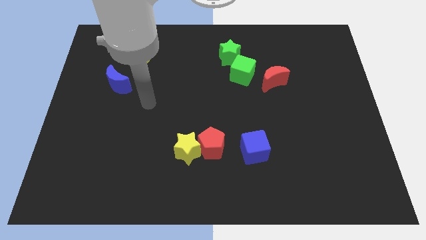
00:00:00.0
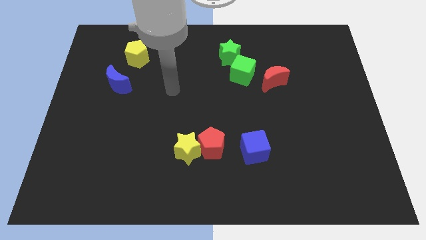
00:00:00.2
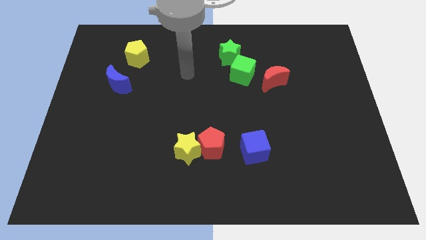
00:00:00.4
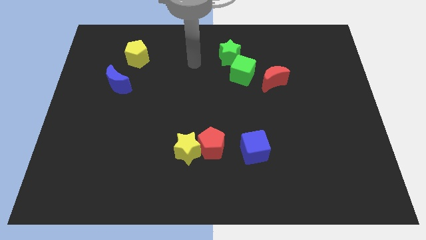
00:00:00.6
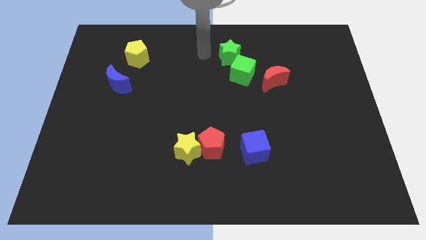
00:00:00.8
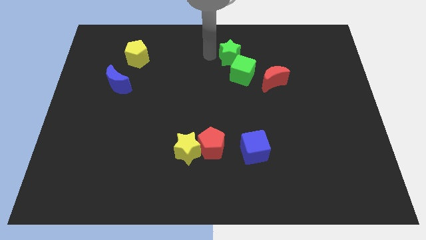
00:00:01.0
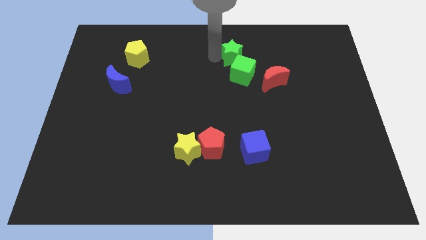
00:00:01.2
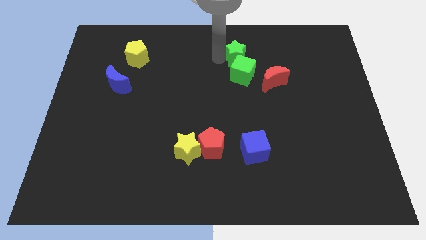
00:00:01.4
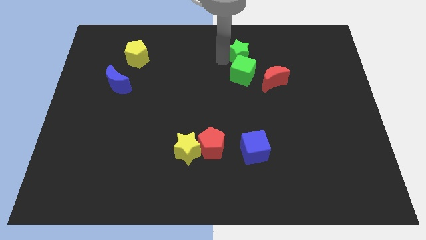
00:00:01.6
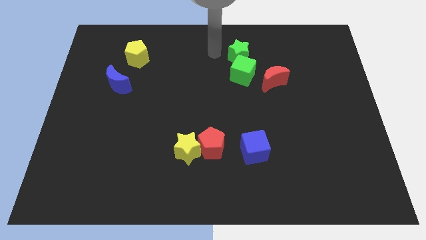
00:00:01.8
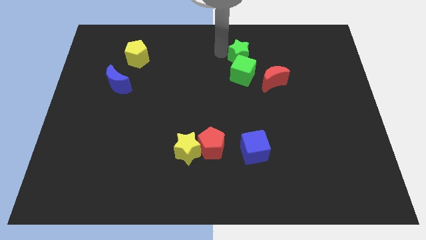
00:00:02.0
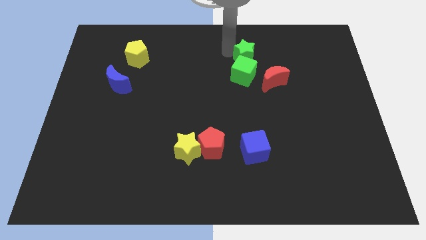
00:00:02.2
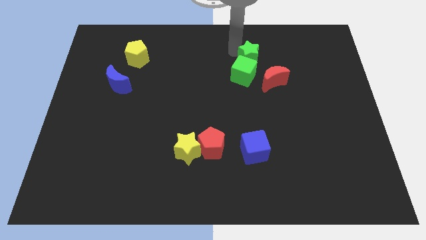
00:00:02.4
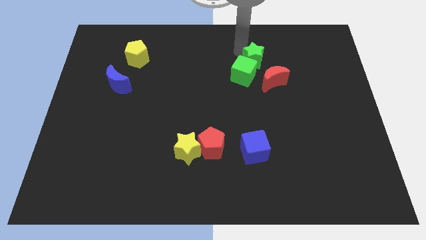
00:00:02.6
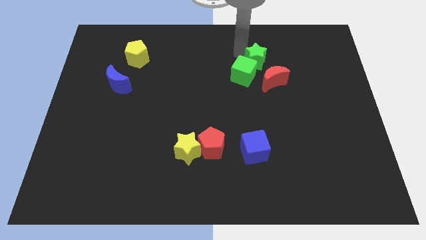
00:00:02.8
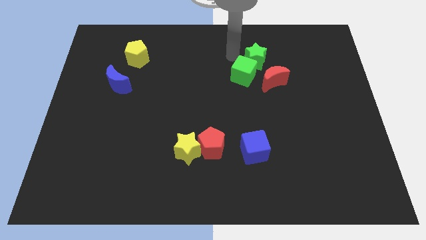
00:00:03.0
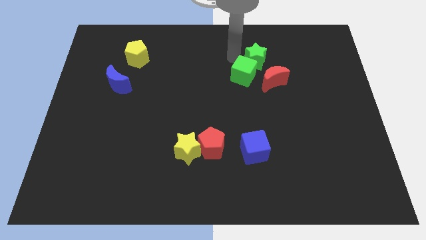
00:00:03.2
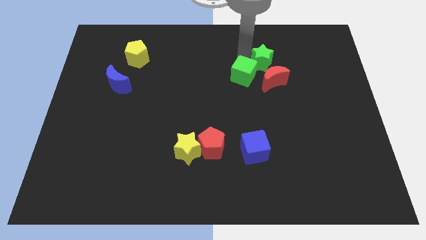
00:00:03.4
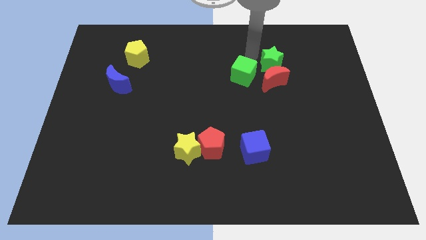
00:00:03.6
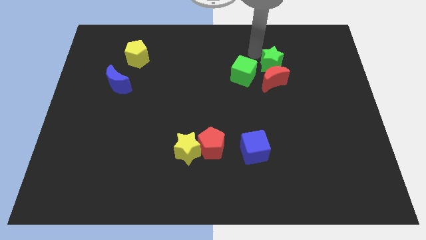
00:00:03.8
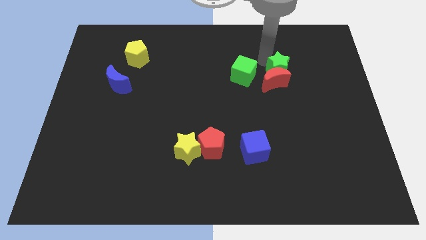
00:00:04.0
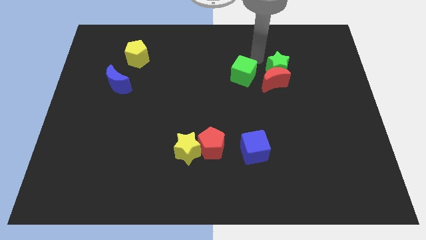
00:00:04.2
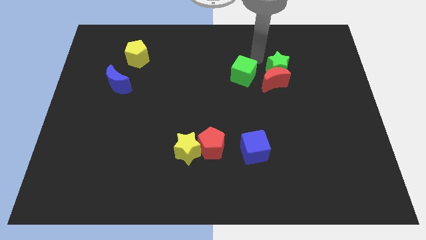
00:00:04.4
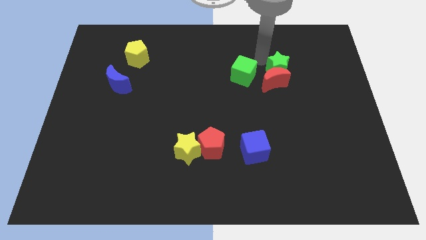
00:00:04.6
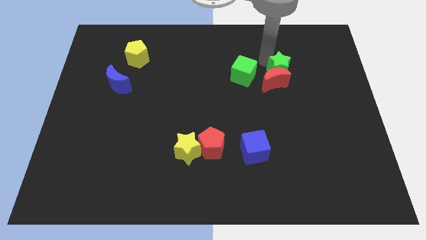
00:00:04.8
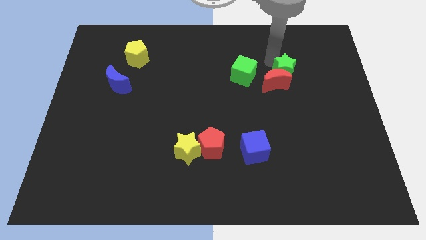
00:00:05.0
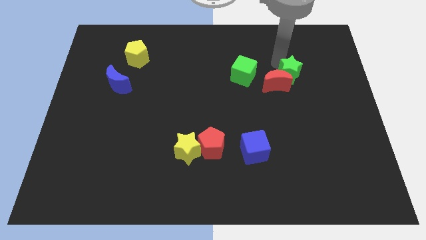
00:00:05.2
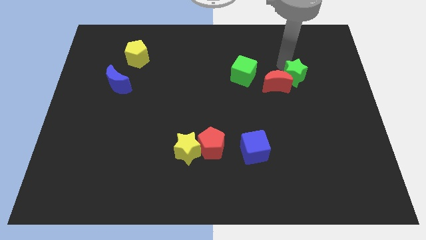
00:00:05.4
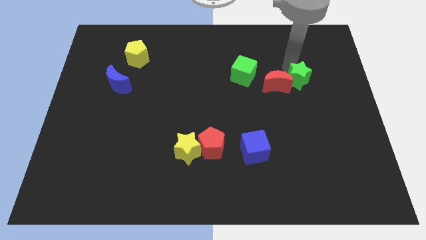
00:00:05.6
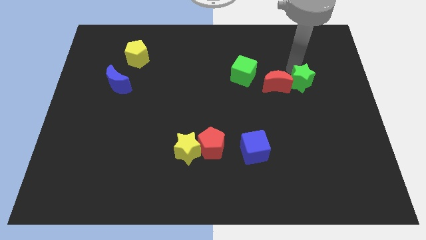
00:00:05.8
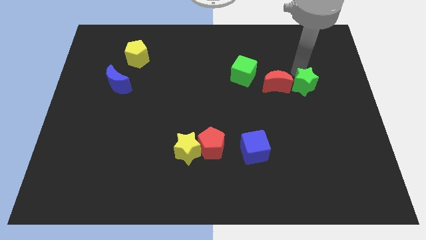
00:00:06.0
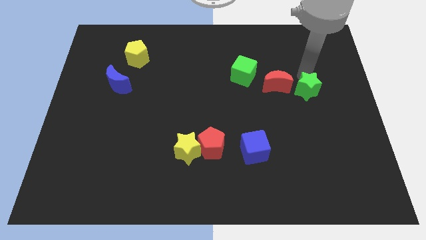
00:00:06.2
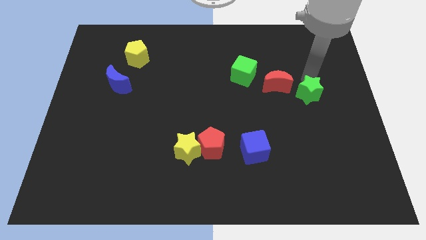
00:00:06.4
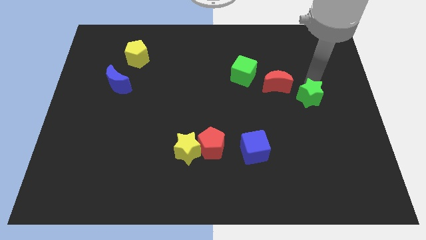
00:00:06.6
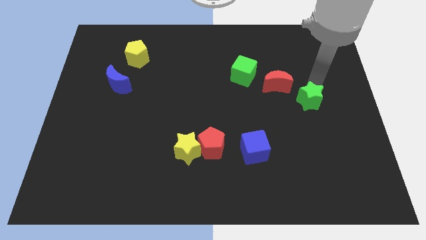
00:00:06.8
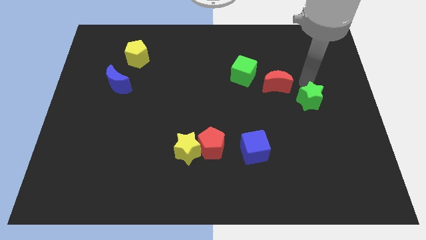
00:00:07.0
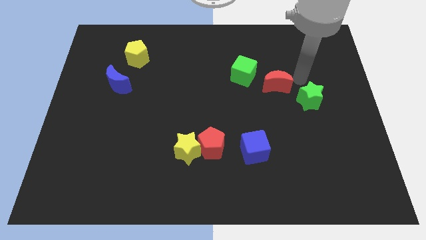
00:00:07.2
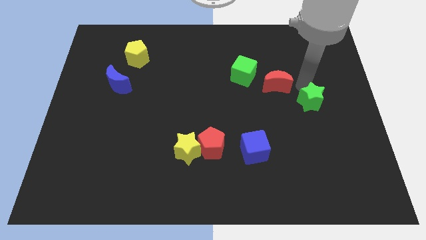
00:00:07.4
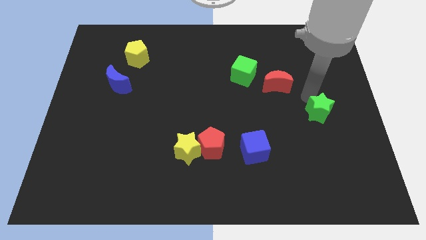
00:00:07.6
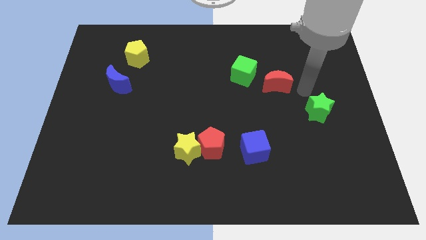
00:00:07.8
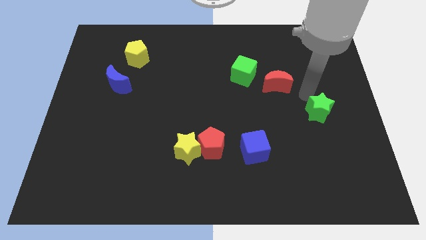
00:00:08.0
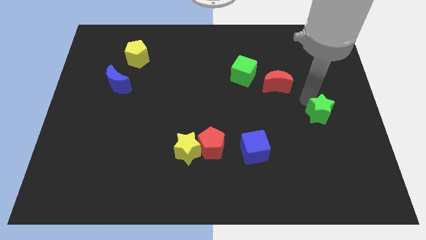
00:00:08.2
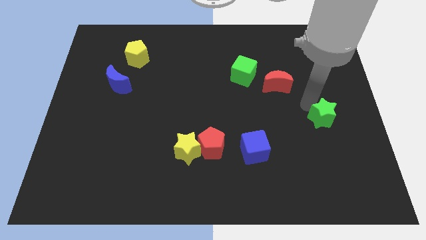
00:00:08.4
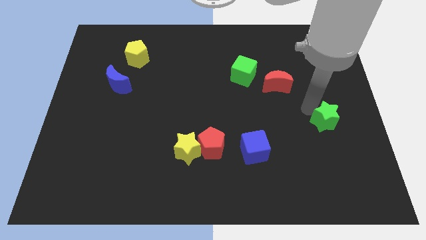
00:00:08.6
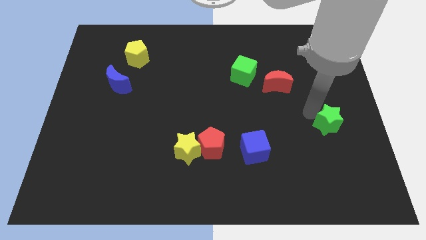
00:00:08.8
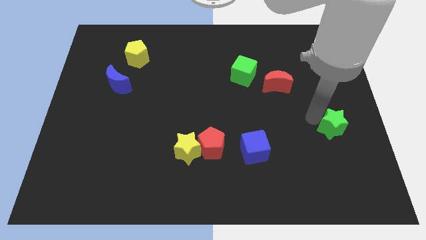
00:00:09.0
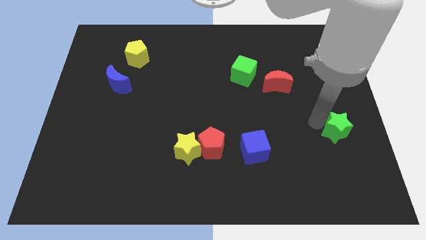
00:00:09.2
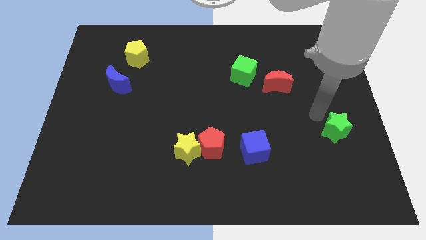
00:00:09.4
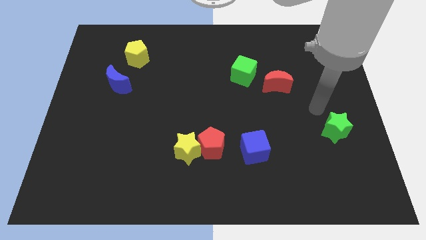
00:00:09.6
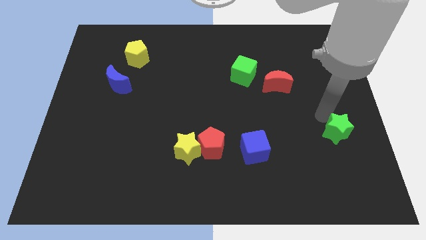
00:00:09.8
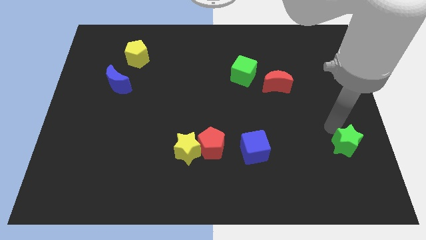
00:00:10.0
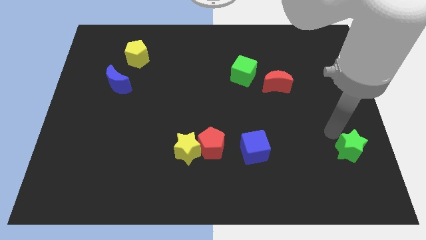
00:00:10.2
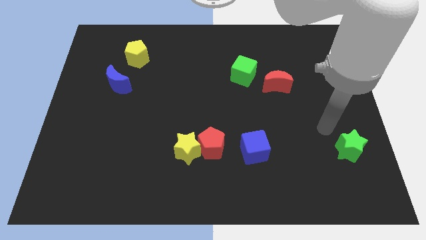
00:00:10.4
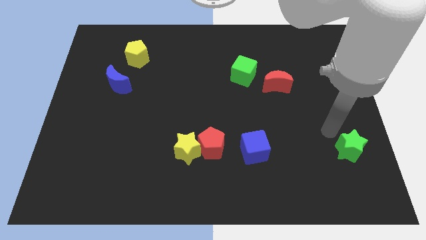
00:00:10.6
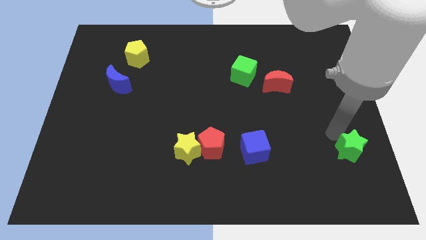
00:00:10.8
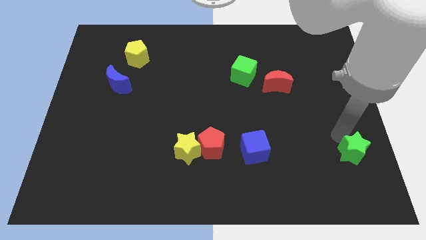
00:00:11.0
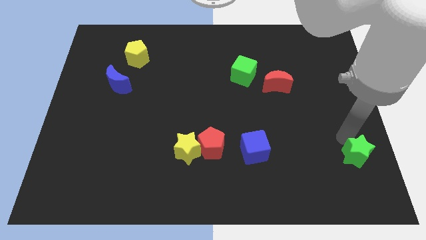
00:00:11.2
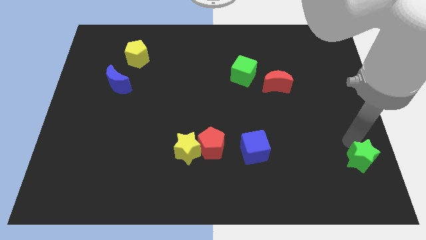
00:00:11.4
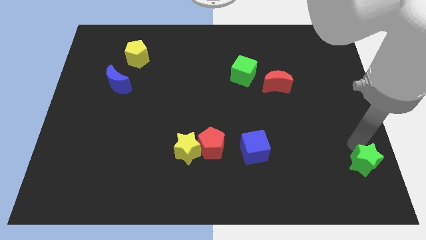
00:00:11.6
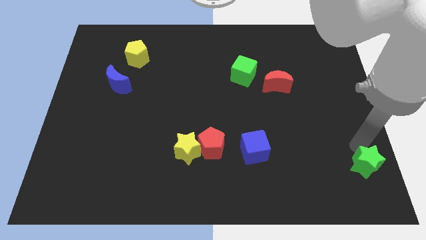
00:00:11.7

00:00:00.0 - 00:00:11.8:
slide the green star to the bottom right corner
